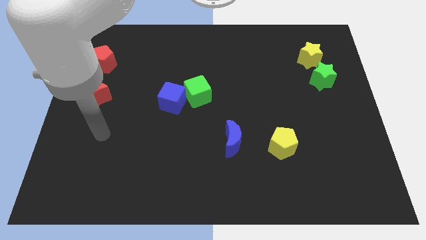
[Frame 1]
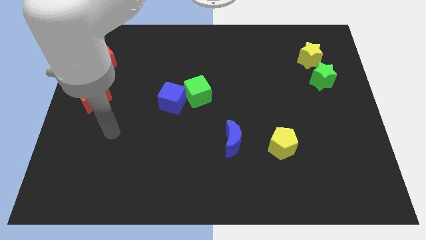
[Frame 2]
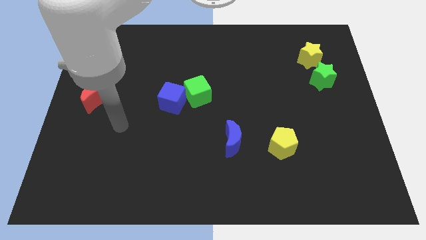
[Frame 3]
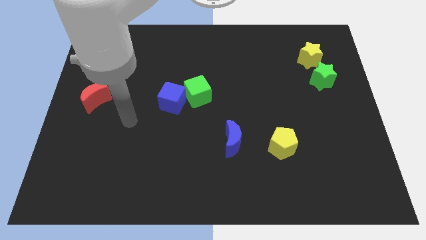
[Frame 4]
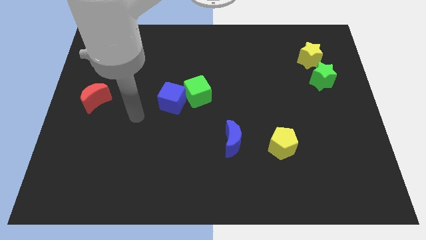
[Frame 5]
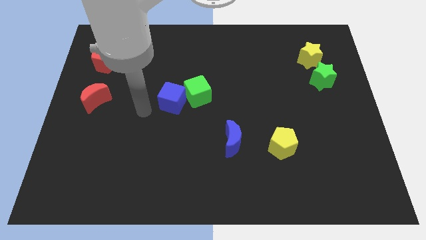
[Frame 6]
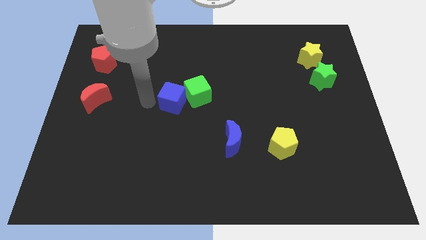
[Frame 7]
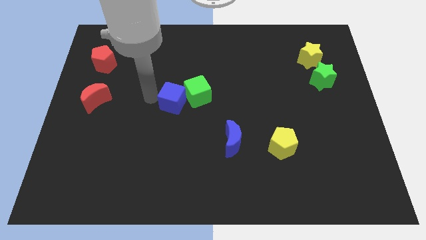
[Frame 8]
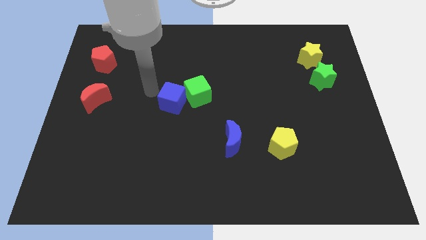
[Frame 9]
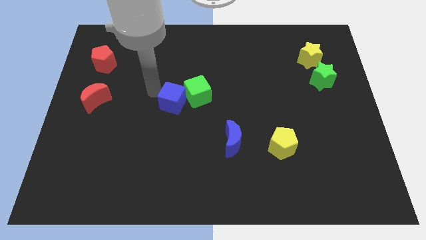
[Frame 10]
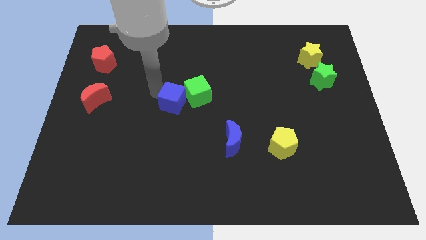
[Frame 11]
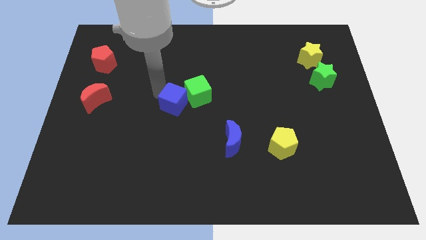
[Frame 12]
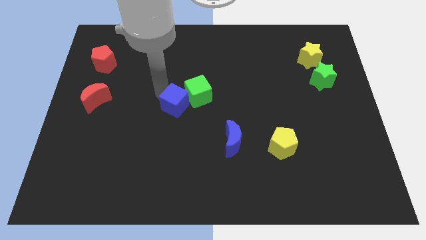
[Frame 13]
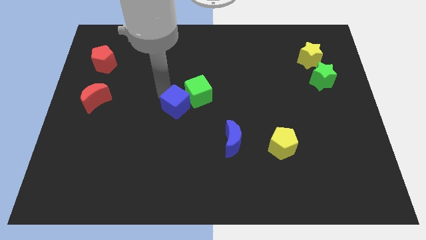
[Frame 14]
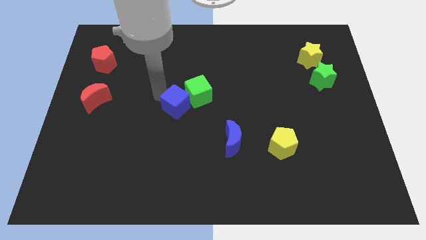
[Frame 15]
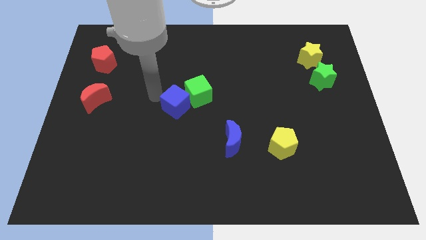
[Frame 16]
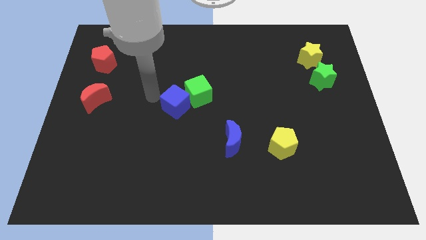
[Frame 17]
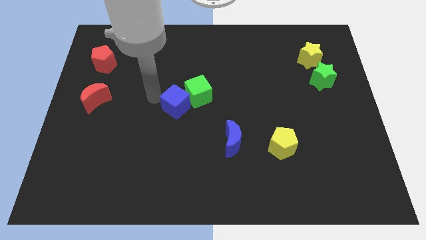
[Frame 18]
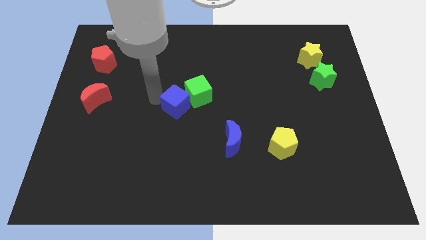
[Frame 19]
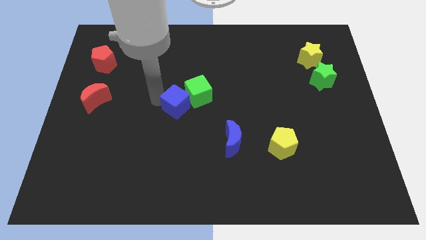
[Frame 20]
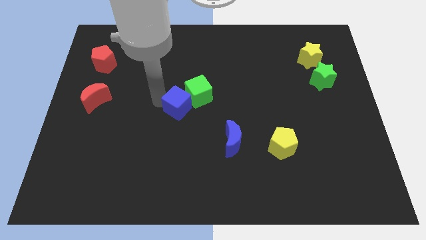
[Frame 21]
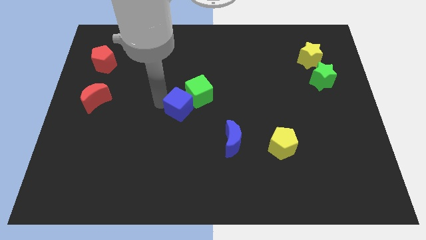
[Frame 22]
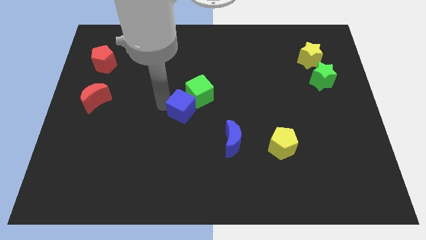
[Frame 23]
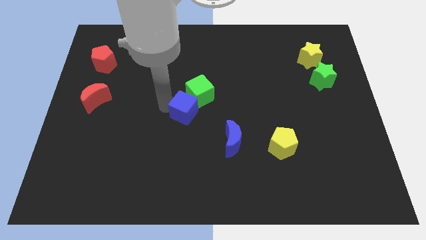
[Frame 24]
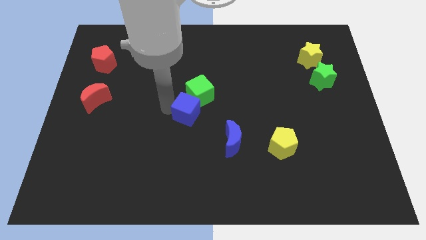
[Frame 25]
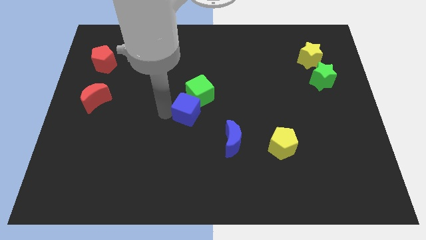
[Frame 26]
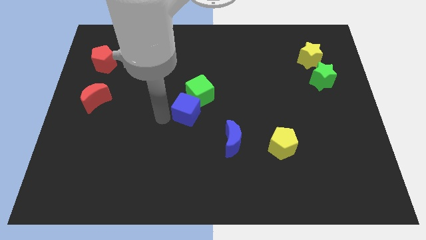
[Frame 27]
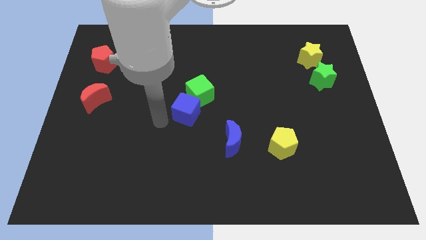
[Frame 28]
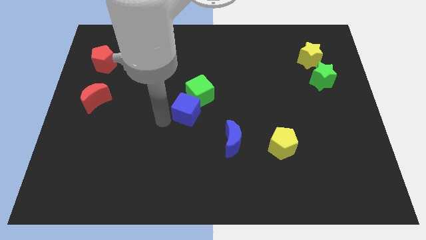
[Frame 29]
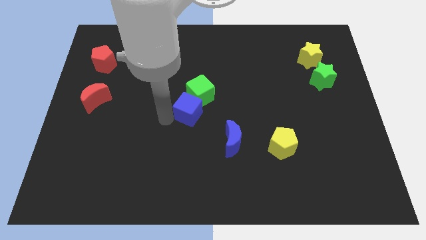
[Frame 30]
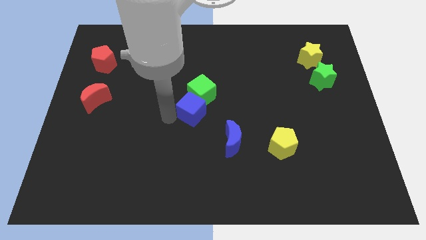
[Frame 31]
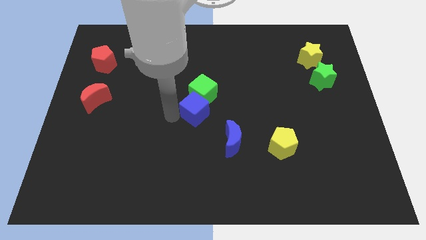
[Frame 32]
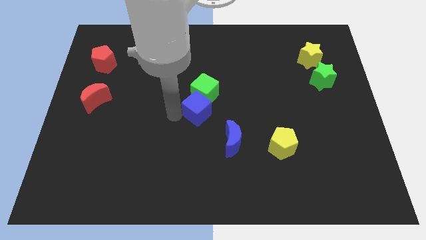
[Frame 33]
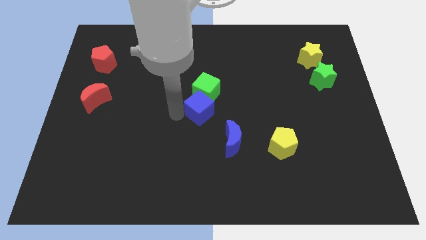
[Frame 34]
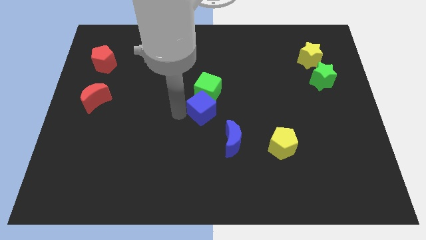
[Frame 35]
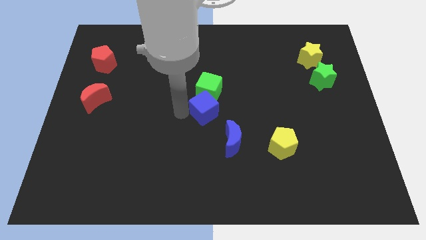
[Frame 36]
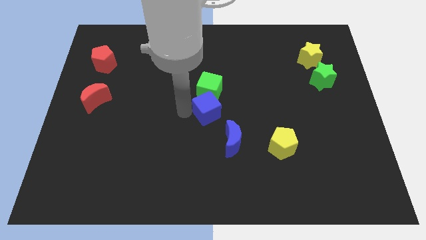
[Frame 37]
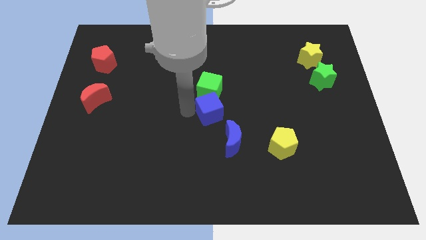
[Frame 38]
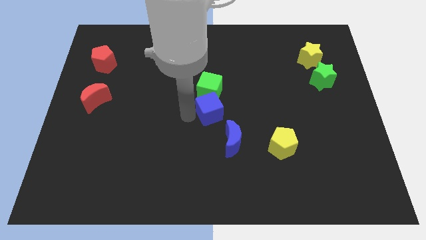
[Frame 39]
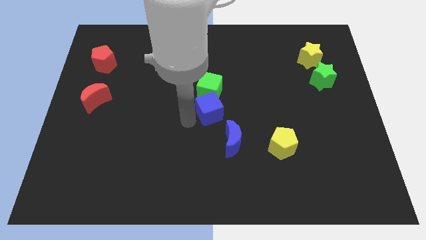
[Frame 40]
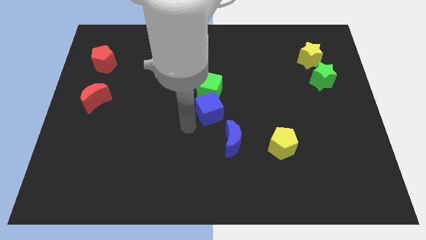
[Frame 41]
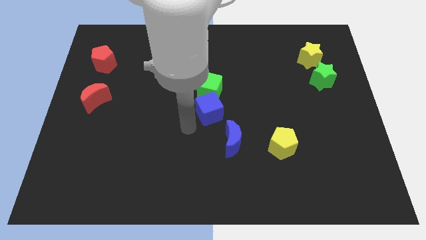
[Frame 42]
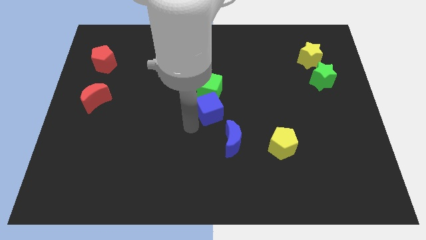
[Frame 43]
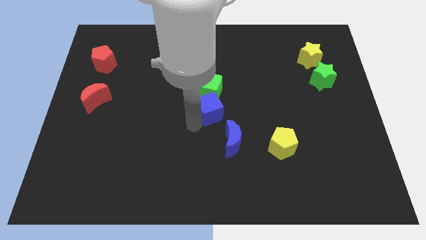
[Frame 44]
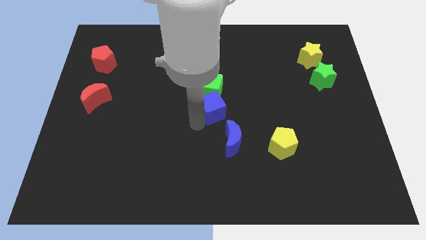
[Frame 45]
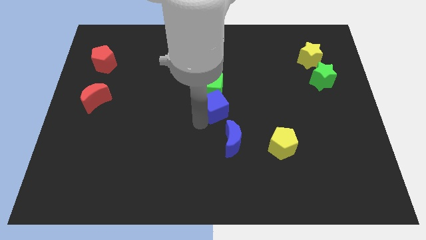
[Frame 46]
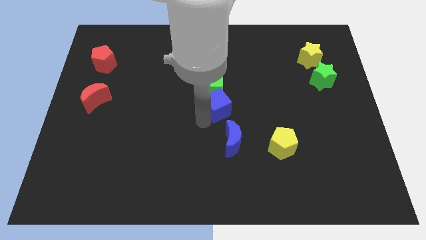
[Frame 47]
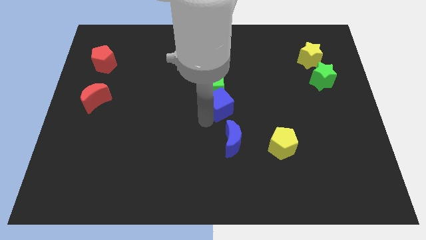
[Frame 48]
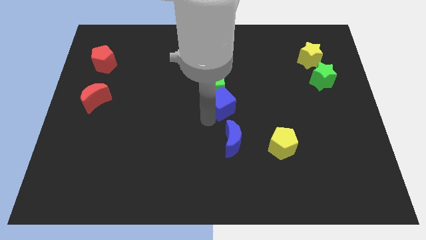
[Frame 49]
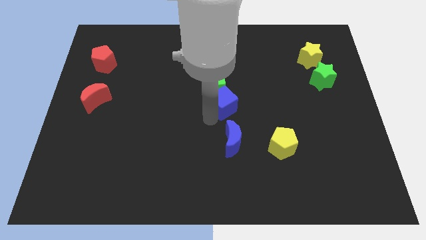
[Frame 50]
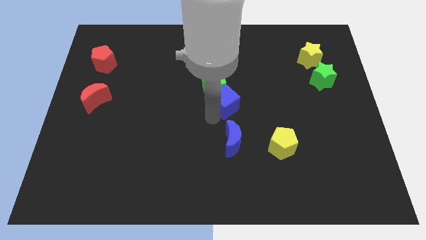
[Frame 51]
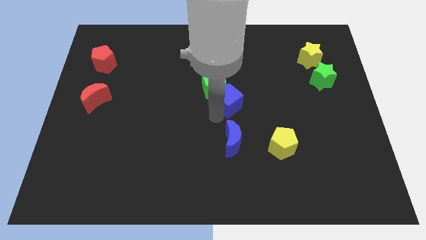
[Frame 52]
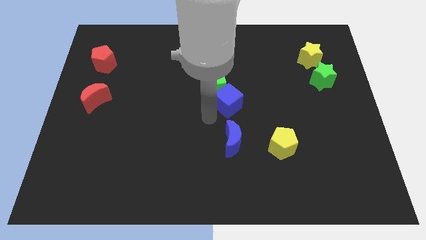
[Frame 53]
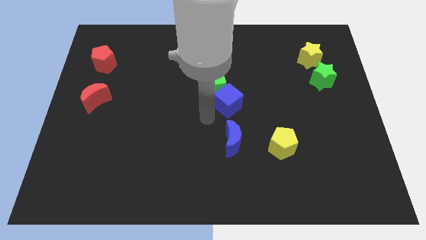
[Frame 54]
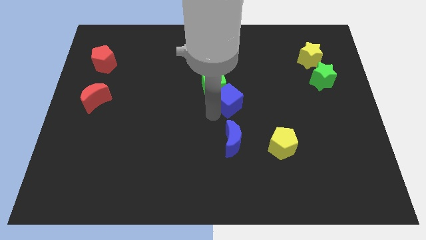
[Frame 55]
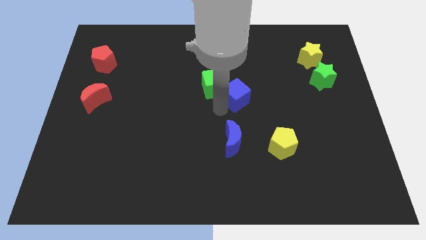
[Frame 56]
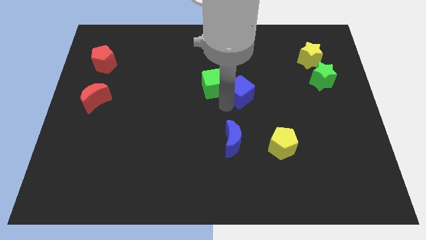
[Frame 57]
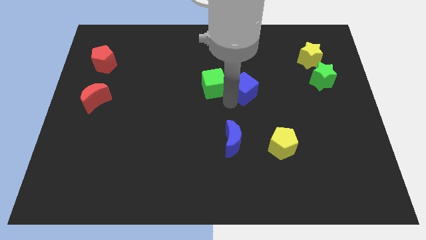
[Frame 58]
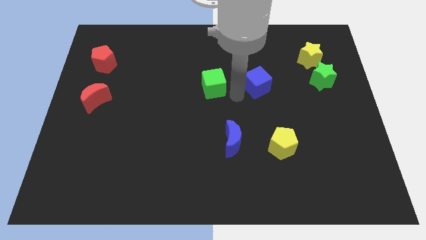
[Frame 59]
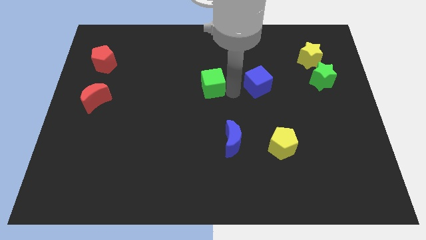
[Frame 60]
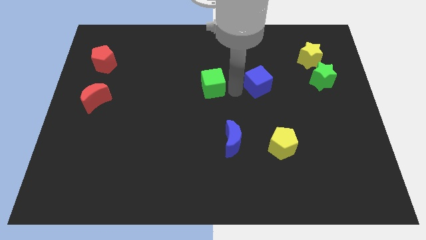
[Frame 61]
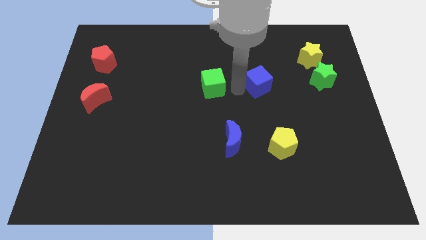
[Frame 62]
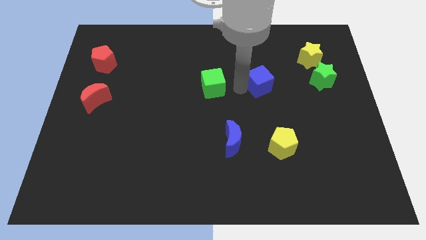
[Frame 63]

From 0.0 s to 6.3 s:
slide the blue cube to the left of the green star

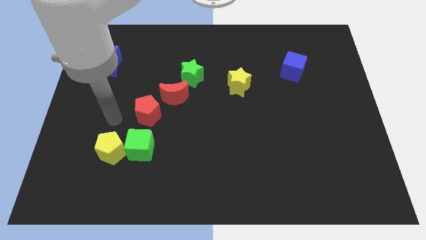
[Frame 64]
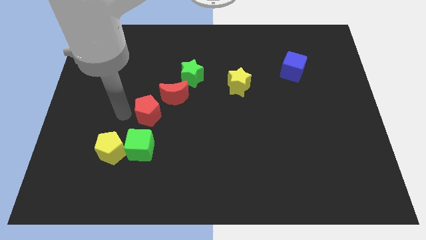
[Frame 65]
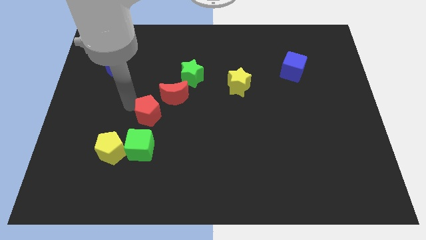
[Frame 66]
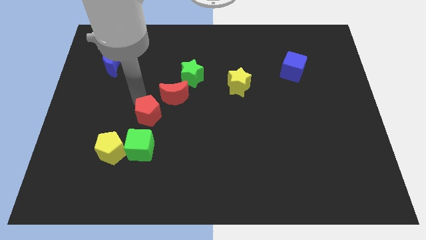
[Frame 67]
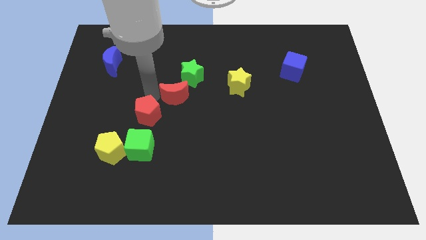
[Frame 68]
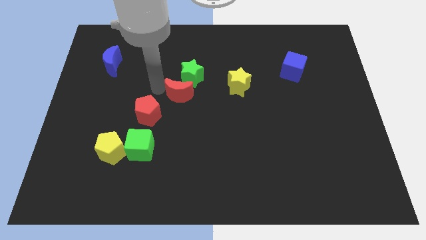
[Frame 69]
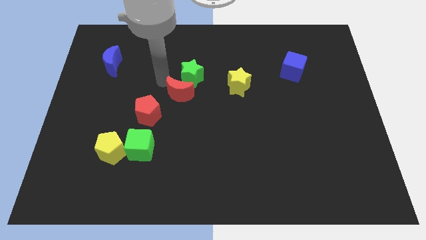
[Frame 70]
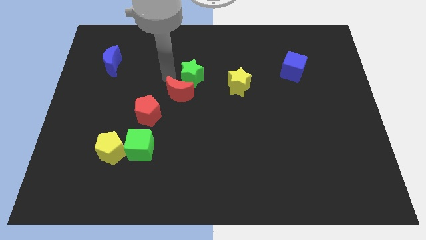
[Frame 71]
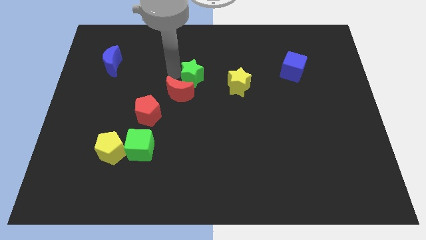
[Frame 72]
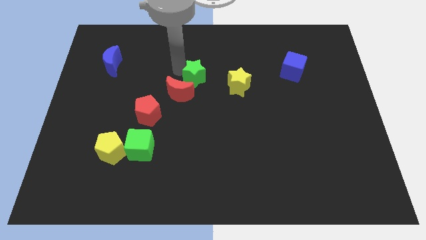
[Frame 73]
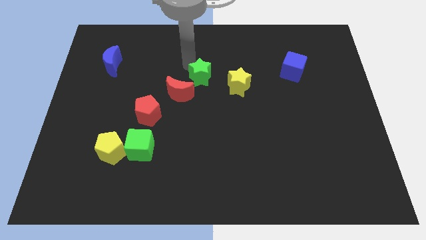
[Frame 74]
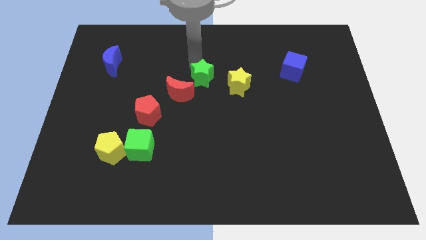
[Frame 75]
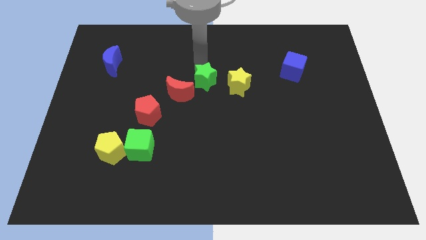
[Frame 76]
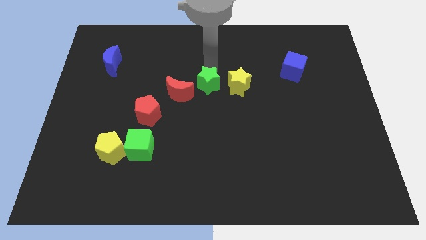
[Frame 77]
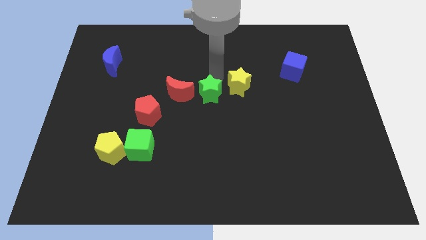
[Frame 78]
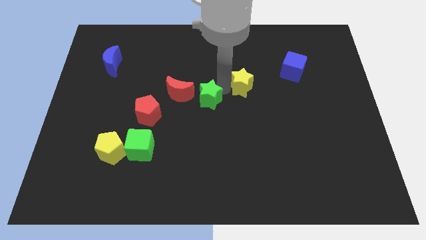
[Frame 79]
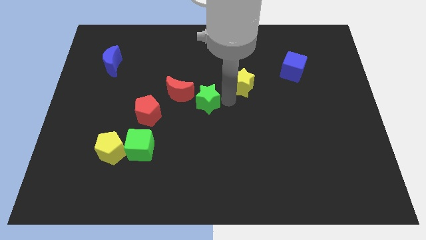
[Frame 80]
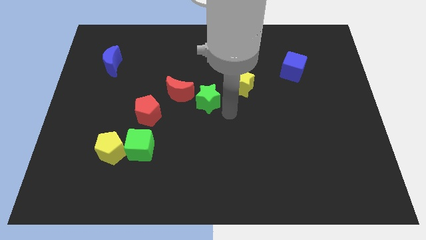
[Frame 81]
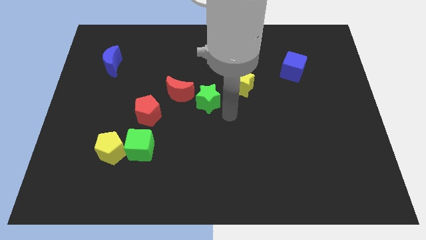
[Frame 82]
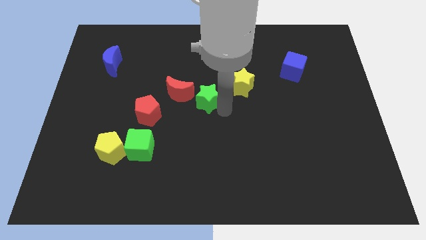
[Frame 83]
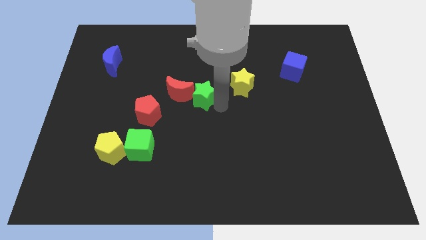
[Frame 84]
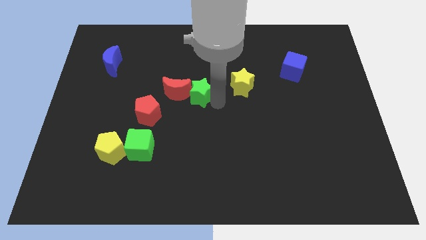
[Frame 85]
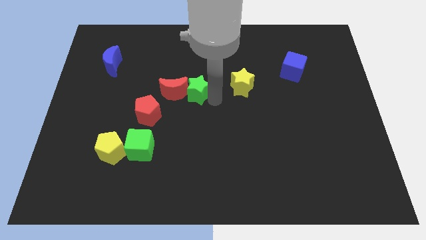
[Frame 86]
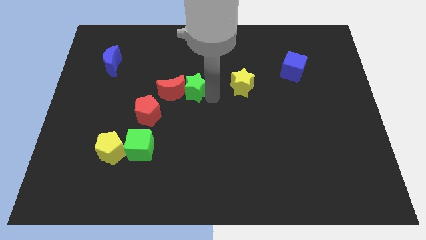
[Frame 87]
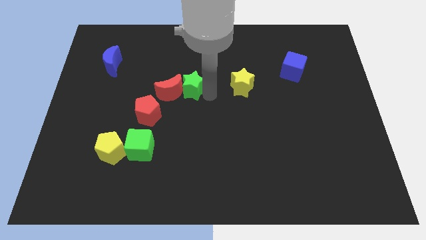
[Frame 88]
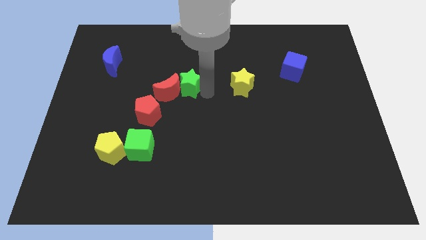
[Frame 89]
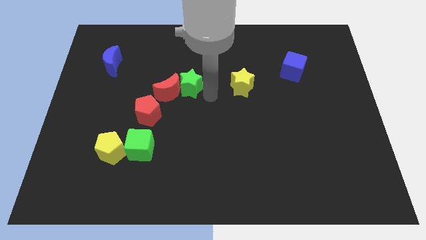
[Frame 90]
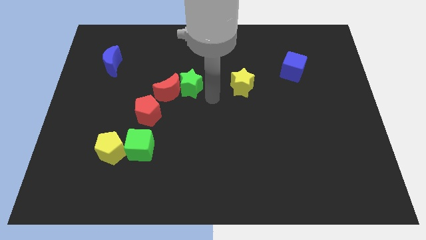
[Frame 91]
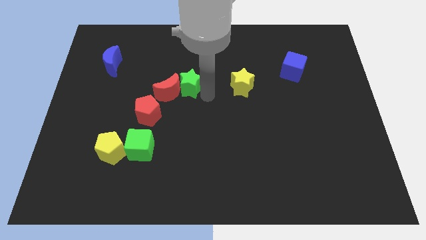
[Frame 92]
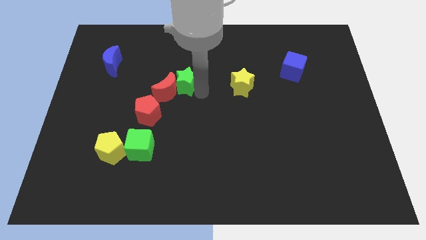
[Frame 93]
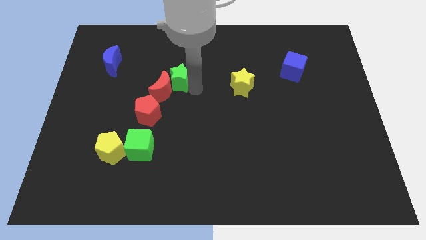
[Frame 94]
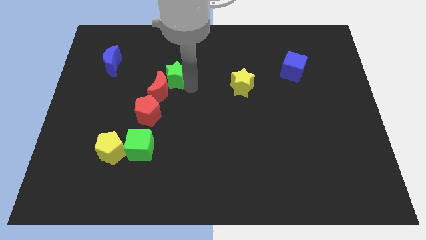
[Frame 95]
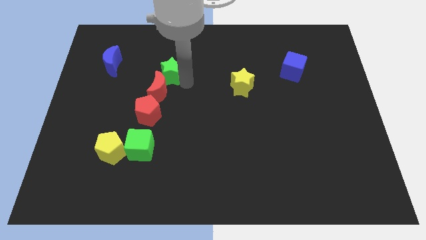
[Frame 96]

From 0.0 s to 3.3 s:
move the green star to the top side of the red pentagon
